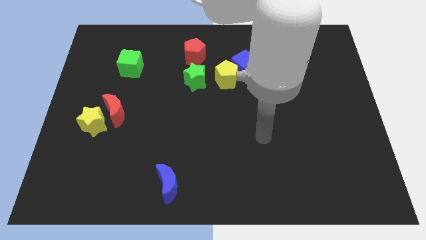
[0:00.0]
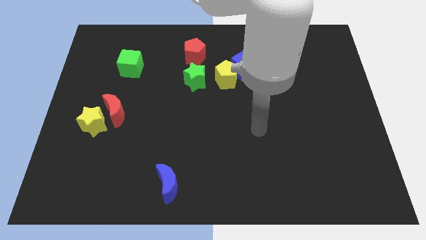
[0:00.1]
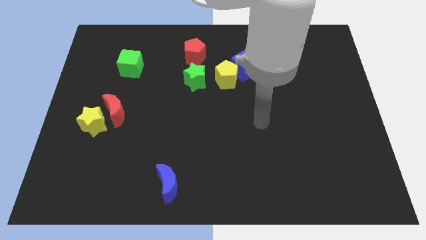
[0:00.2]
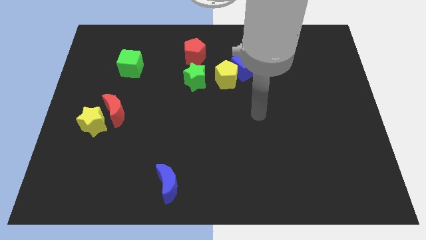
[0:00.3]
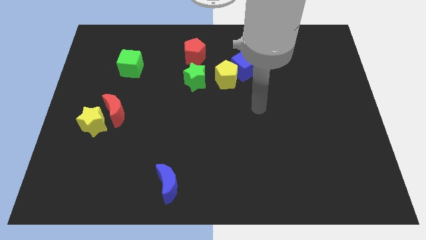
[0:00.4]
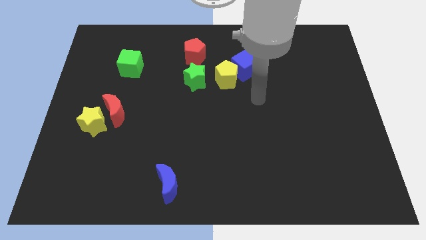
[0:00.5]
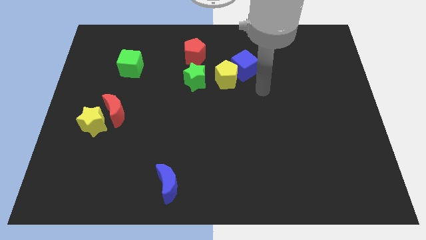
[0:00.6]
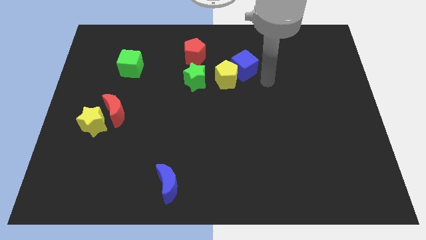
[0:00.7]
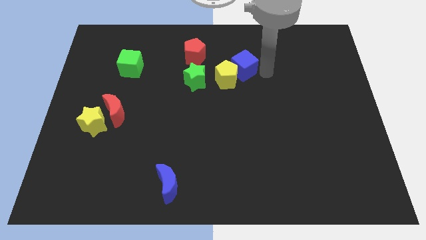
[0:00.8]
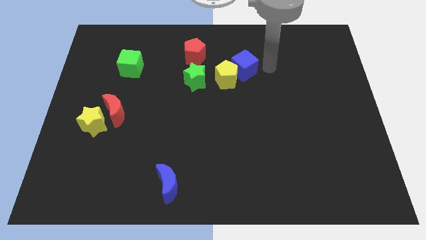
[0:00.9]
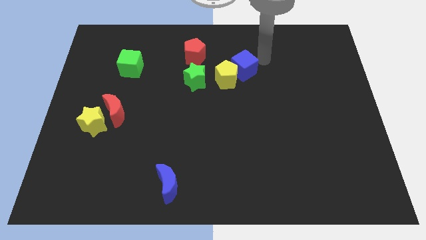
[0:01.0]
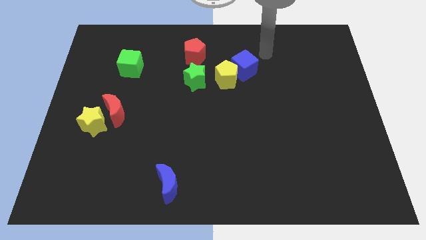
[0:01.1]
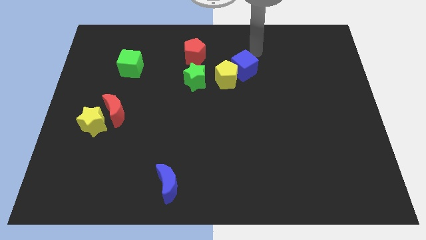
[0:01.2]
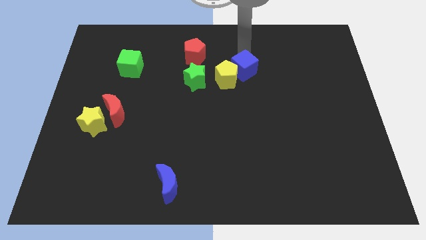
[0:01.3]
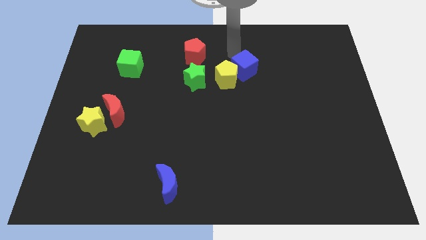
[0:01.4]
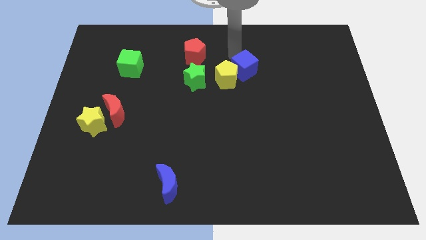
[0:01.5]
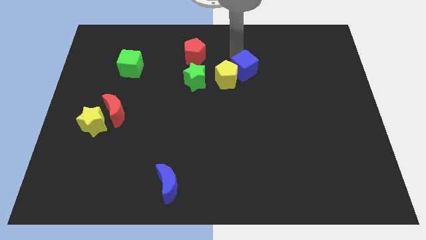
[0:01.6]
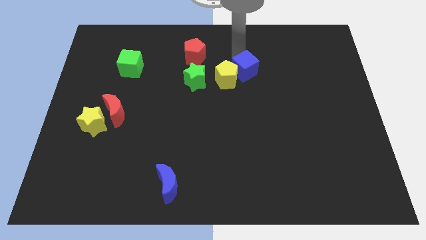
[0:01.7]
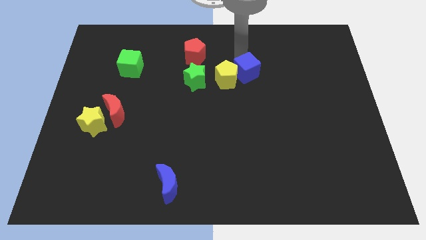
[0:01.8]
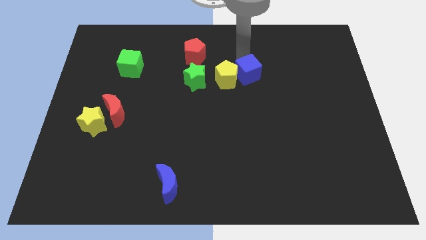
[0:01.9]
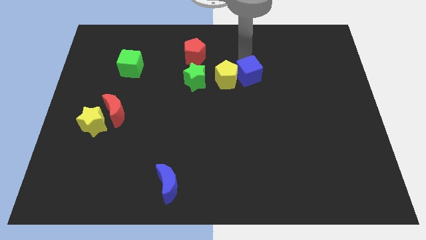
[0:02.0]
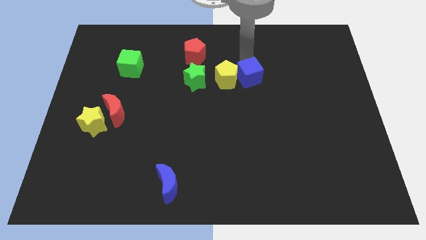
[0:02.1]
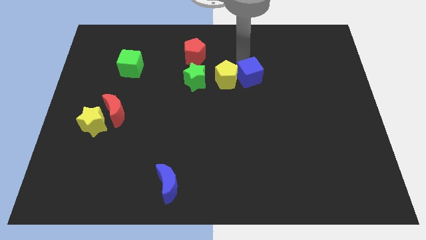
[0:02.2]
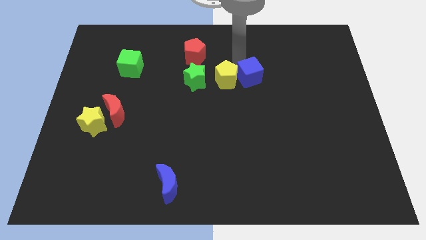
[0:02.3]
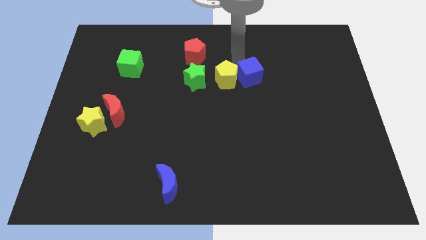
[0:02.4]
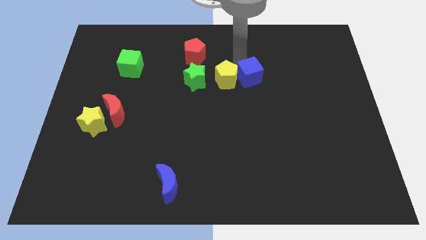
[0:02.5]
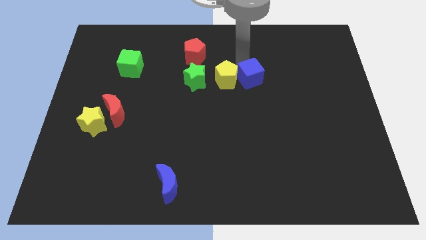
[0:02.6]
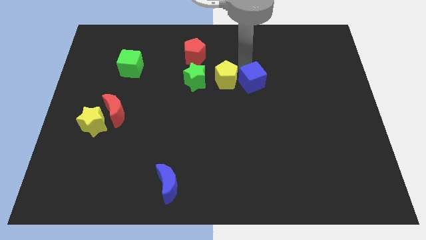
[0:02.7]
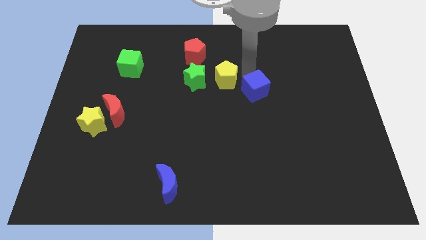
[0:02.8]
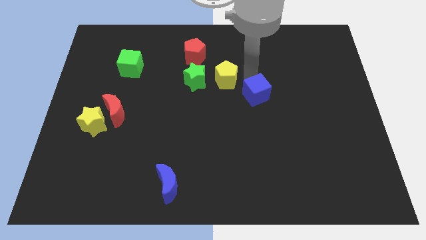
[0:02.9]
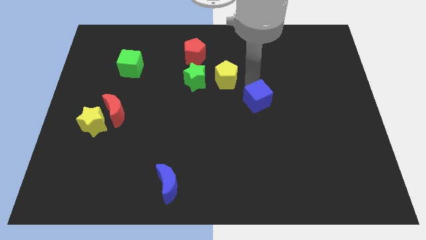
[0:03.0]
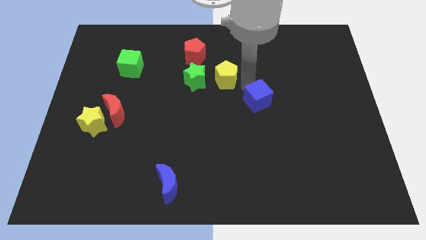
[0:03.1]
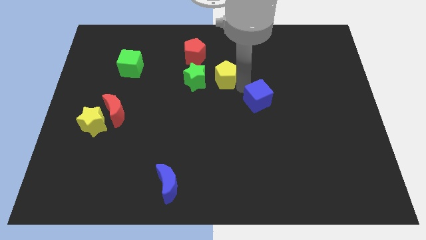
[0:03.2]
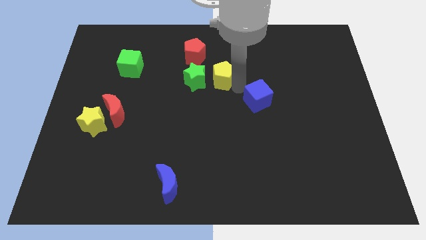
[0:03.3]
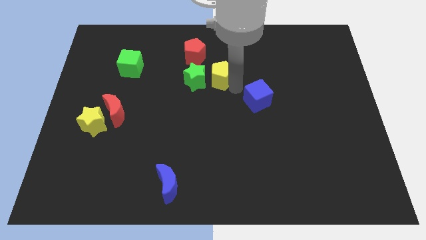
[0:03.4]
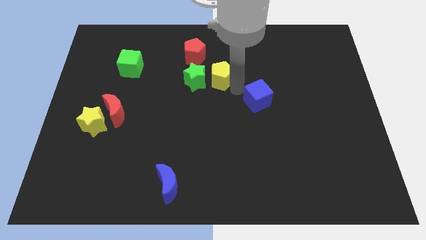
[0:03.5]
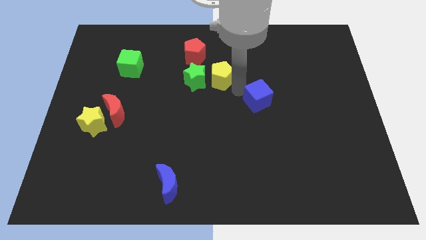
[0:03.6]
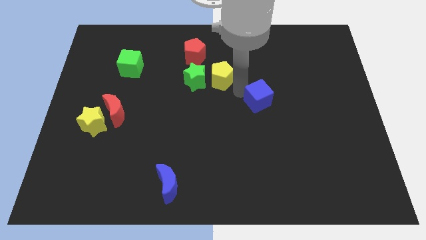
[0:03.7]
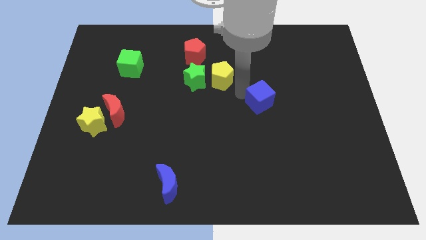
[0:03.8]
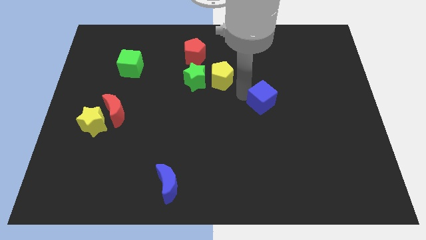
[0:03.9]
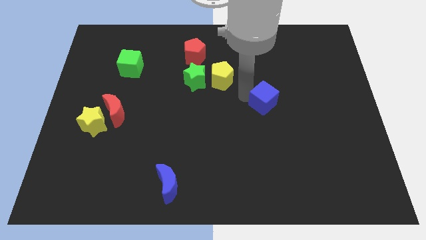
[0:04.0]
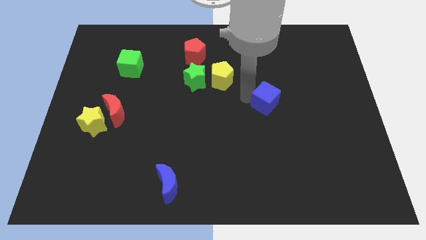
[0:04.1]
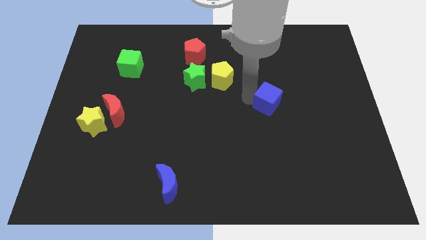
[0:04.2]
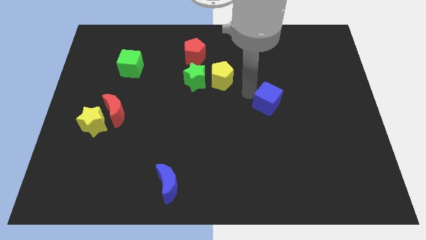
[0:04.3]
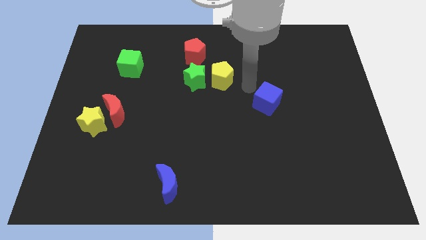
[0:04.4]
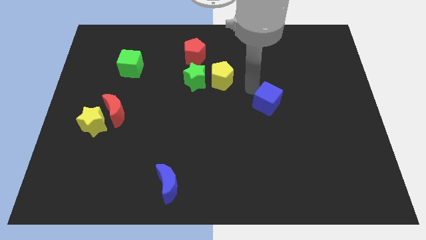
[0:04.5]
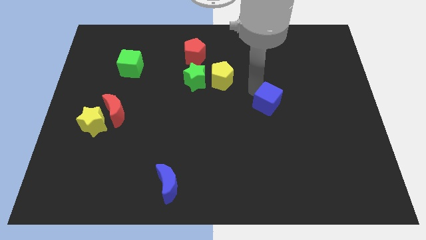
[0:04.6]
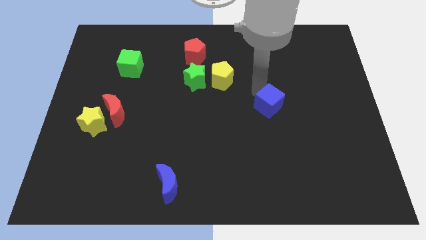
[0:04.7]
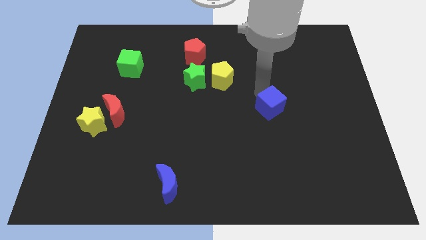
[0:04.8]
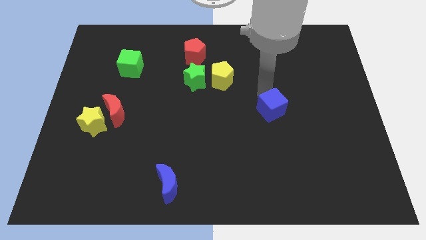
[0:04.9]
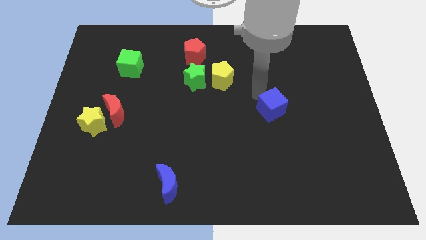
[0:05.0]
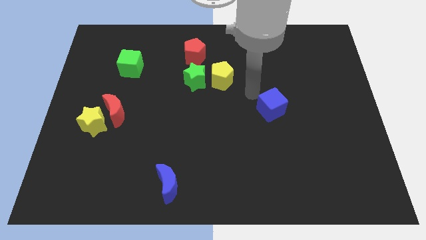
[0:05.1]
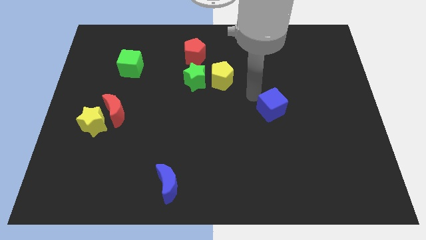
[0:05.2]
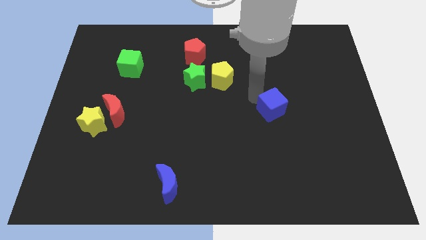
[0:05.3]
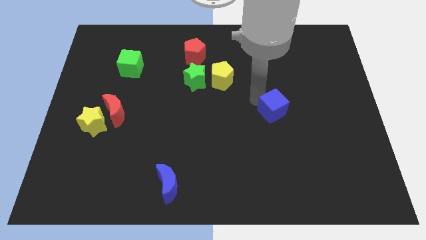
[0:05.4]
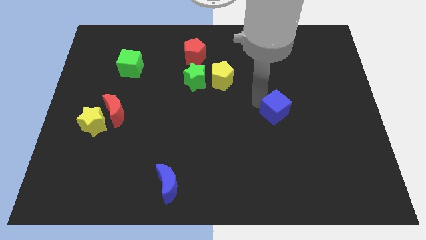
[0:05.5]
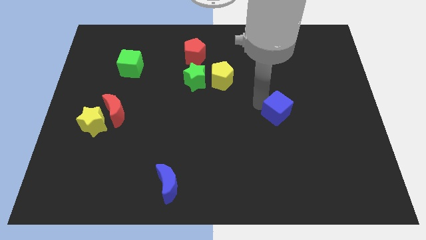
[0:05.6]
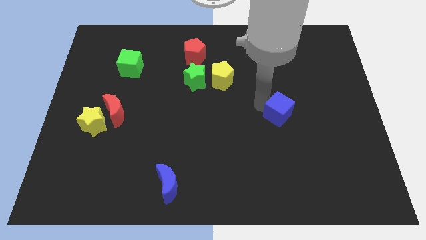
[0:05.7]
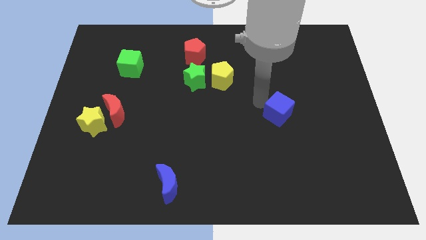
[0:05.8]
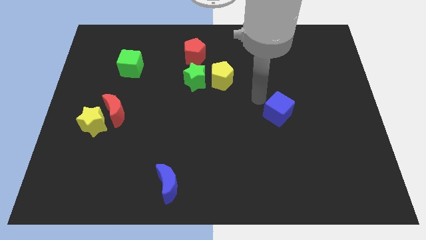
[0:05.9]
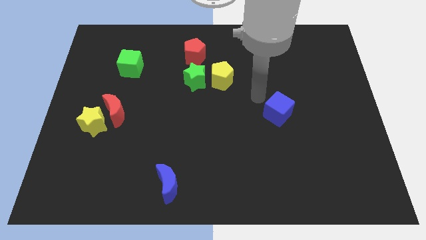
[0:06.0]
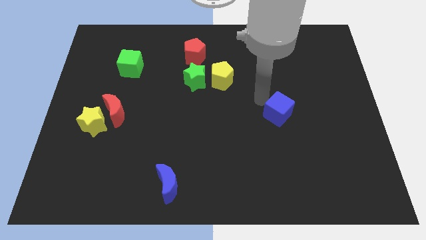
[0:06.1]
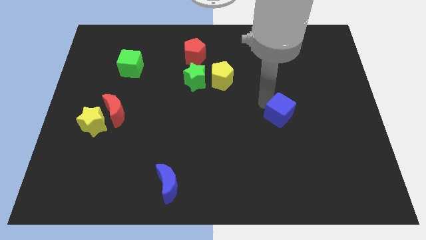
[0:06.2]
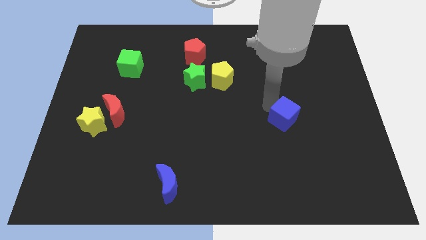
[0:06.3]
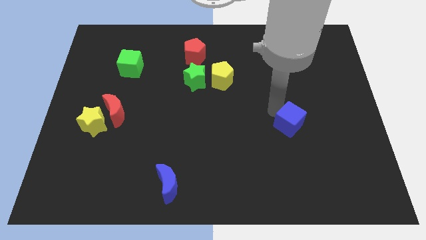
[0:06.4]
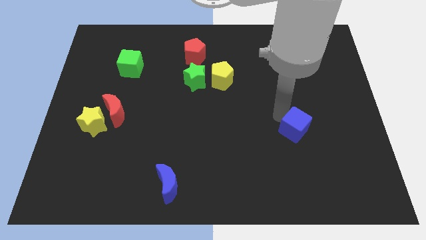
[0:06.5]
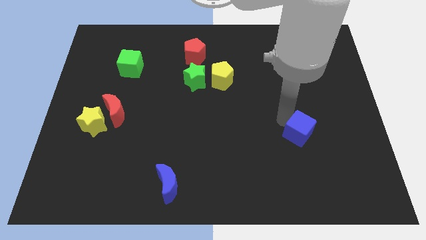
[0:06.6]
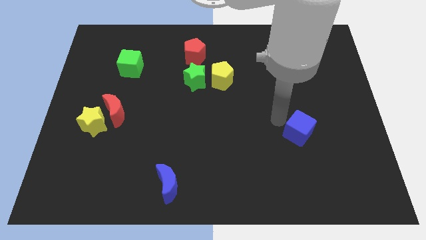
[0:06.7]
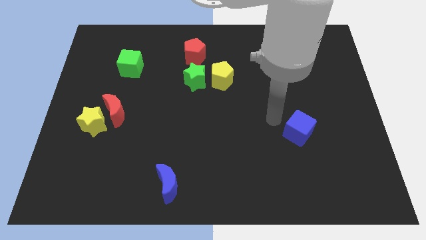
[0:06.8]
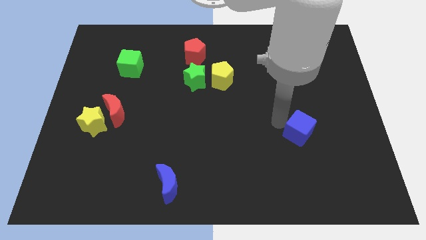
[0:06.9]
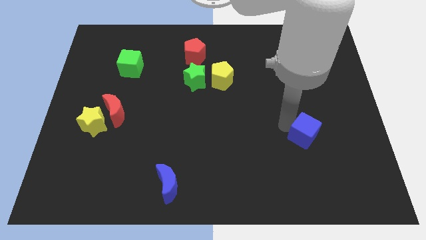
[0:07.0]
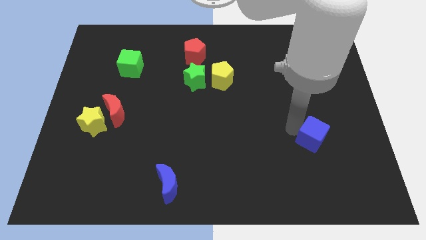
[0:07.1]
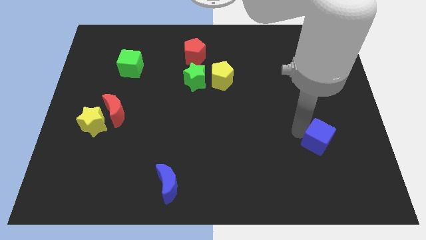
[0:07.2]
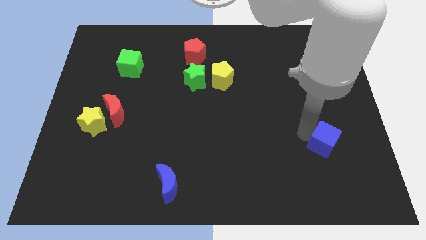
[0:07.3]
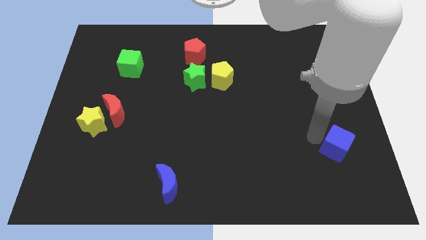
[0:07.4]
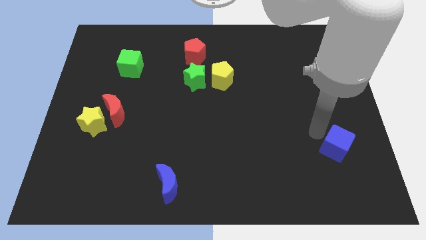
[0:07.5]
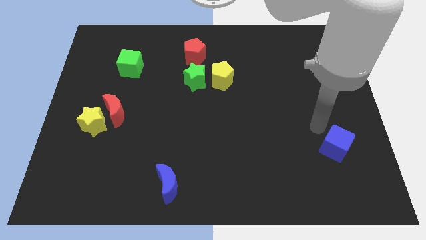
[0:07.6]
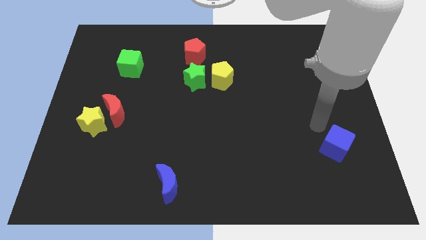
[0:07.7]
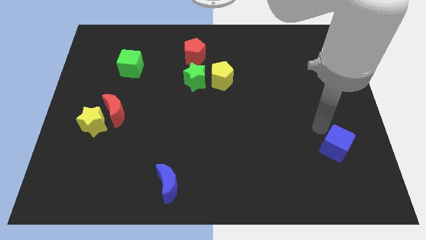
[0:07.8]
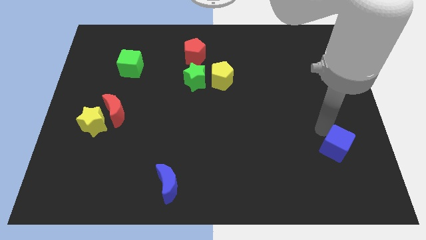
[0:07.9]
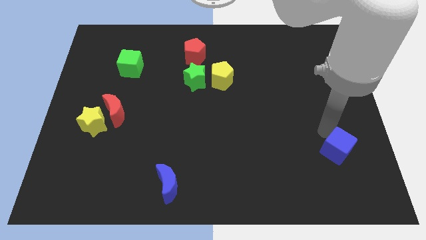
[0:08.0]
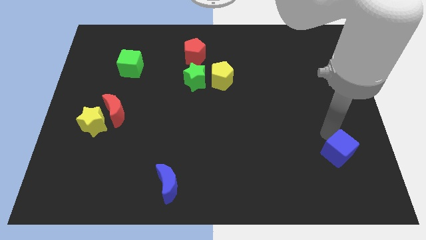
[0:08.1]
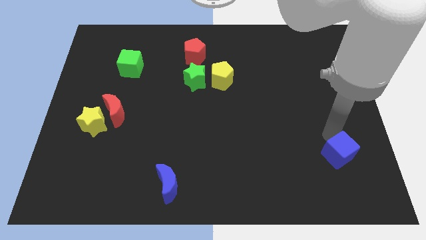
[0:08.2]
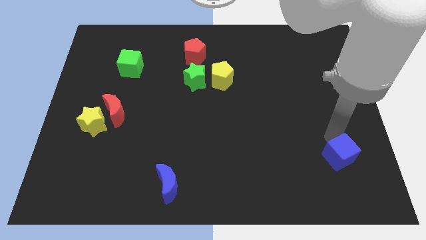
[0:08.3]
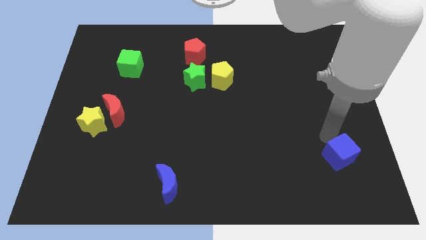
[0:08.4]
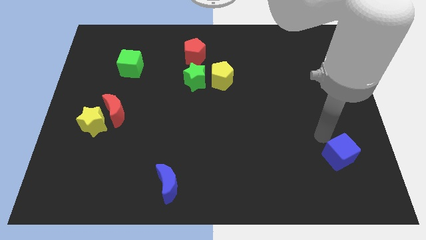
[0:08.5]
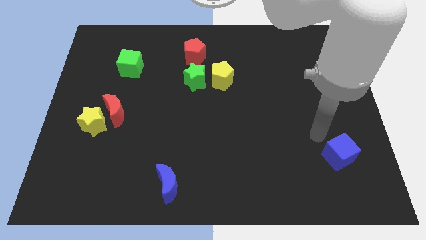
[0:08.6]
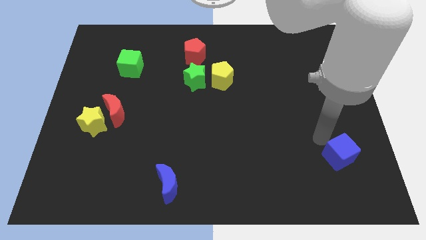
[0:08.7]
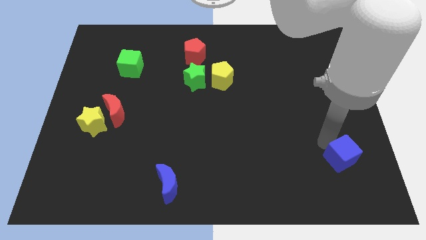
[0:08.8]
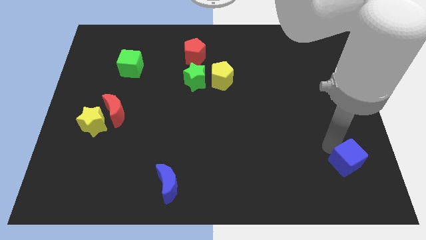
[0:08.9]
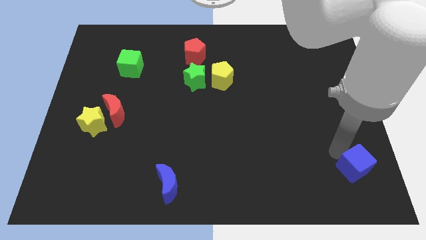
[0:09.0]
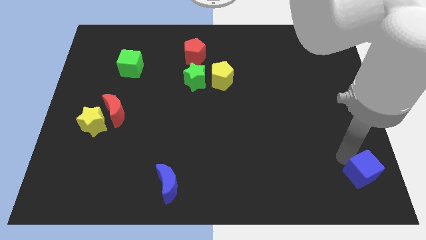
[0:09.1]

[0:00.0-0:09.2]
push the blue cube to the bottom right
